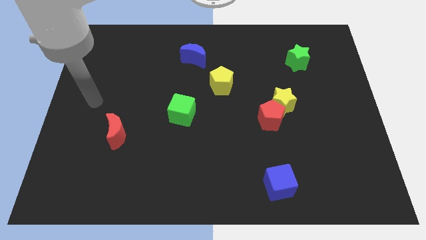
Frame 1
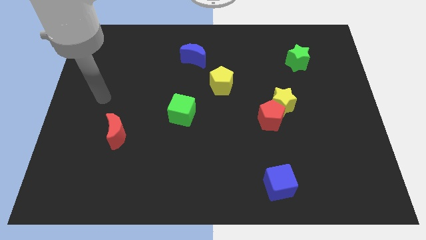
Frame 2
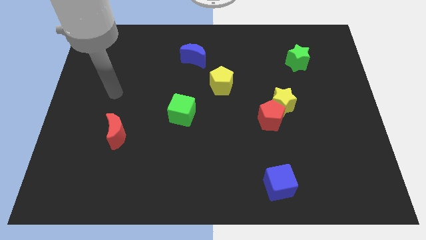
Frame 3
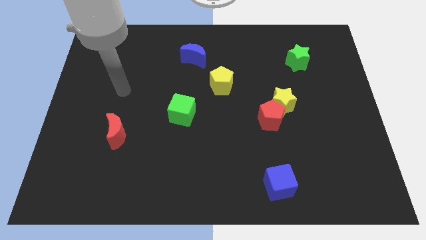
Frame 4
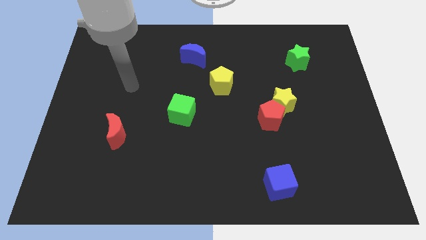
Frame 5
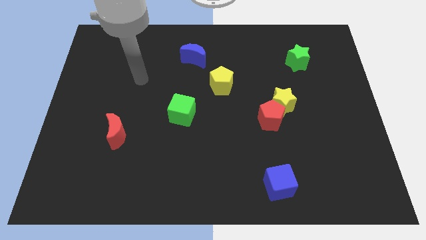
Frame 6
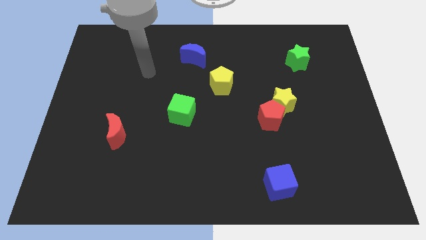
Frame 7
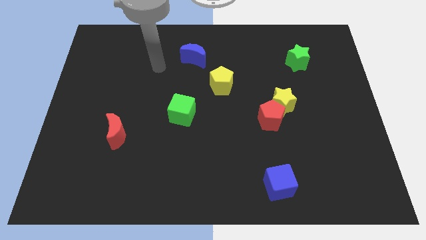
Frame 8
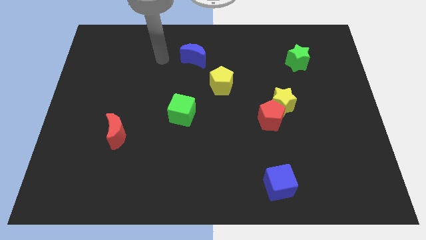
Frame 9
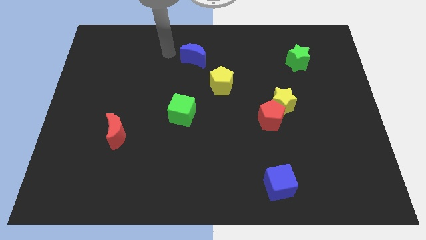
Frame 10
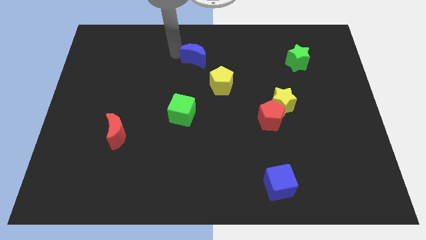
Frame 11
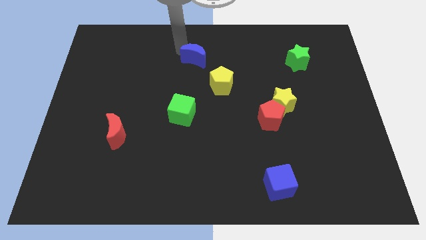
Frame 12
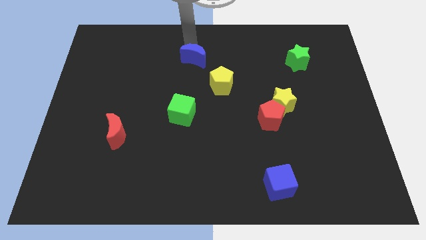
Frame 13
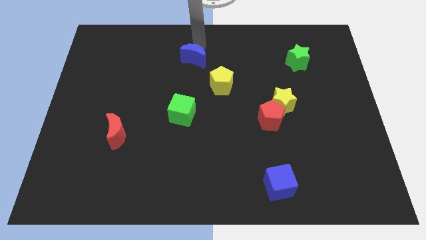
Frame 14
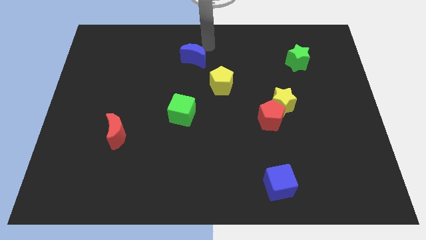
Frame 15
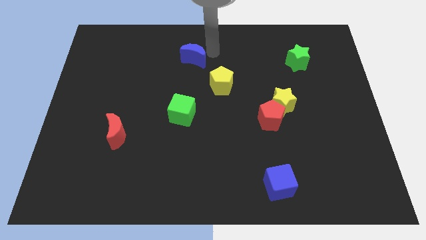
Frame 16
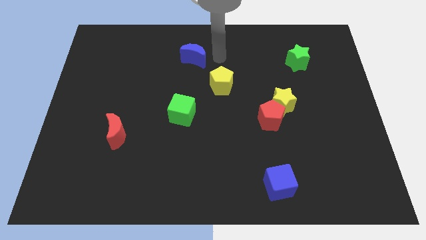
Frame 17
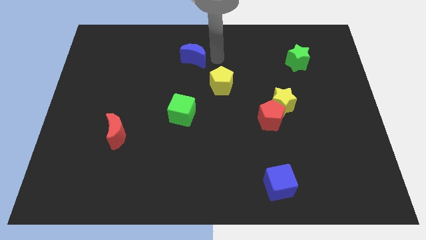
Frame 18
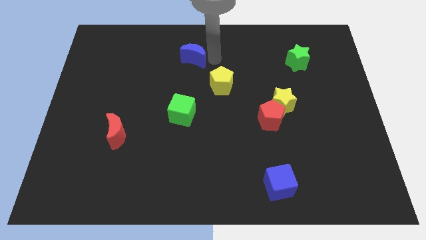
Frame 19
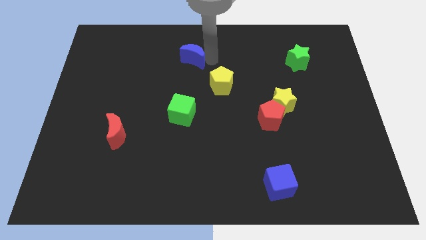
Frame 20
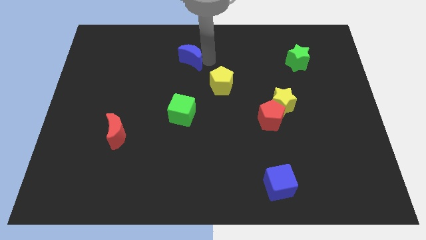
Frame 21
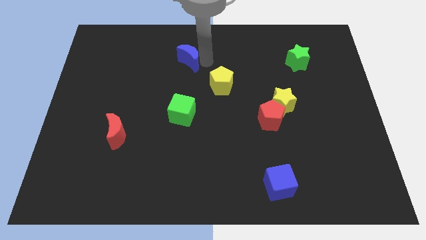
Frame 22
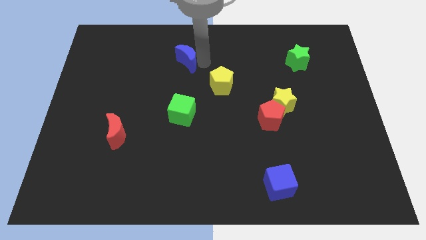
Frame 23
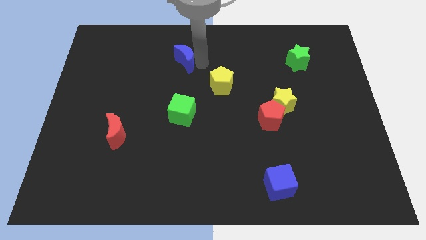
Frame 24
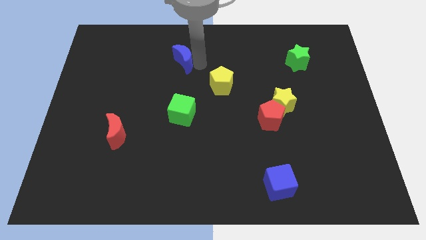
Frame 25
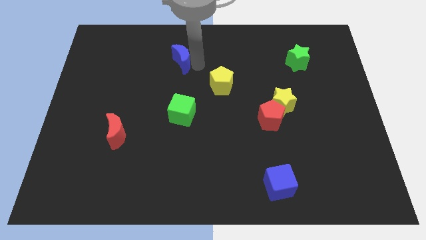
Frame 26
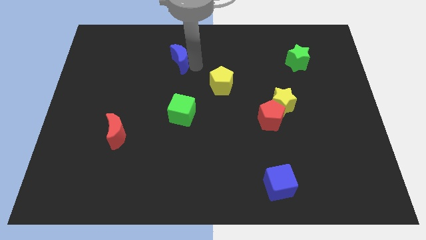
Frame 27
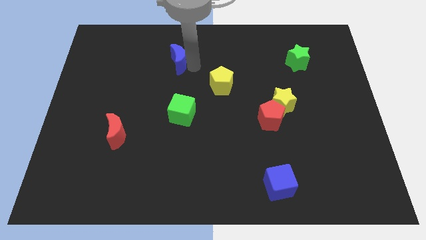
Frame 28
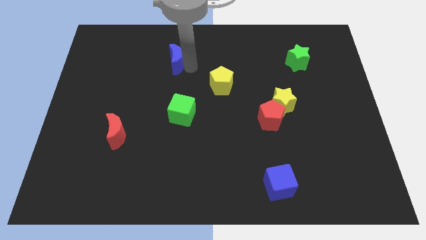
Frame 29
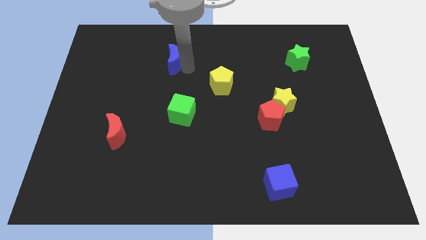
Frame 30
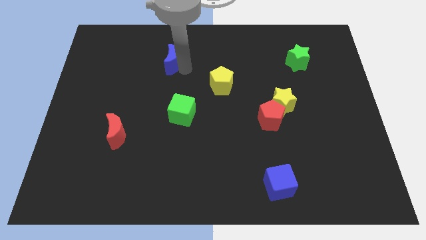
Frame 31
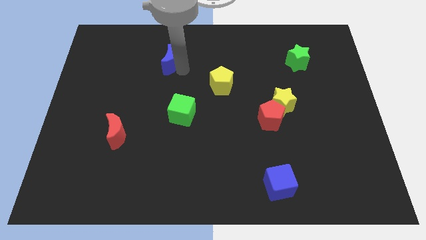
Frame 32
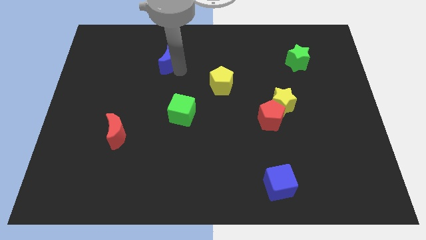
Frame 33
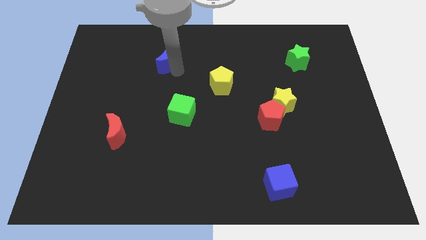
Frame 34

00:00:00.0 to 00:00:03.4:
push the blue moon to the left a bit

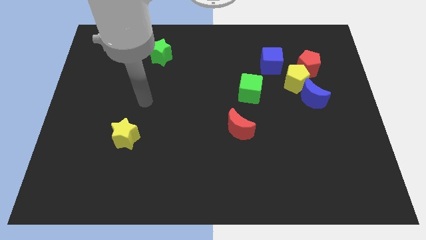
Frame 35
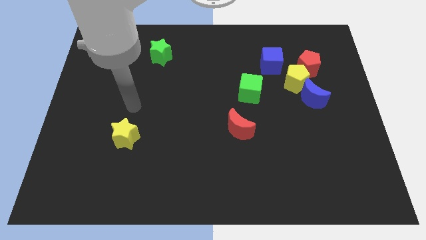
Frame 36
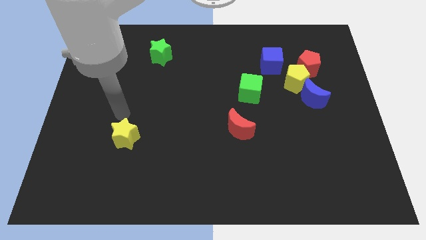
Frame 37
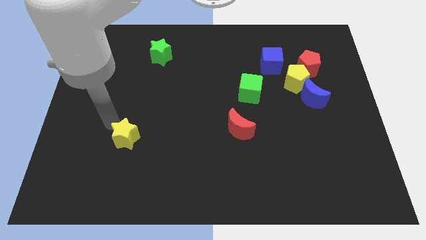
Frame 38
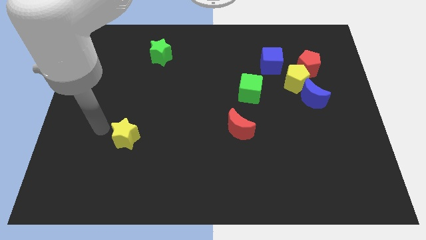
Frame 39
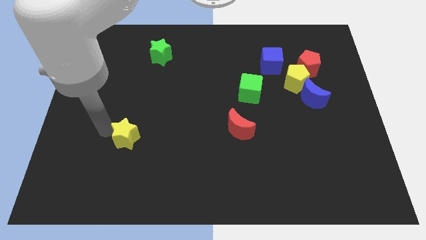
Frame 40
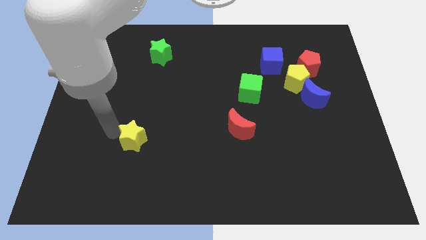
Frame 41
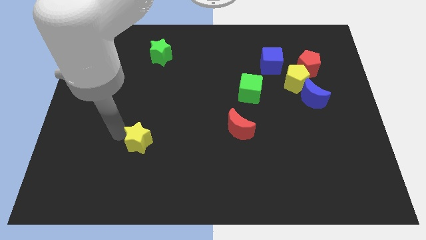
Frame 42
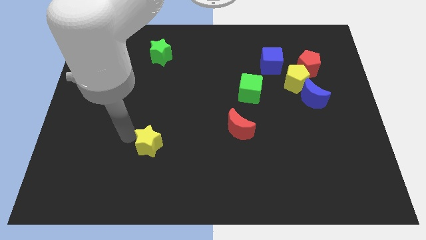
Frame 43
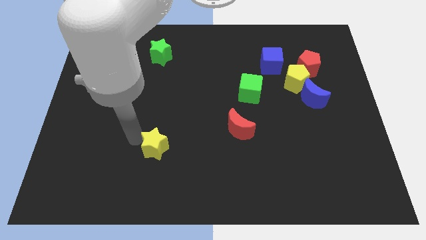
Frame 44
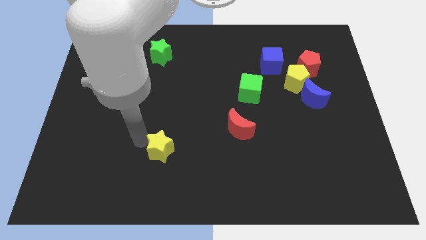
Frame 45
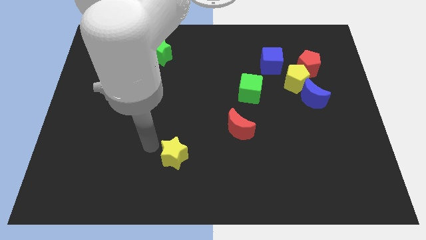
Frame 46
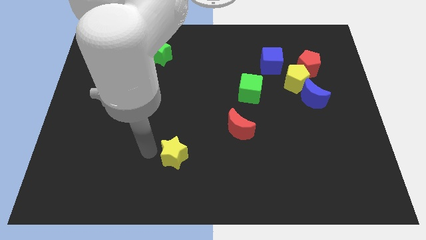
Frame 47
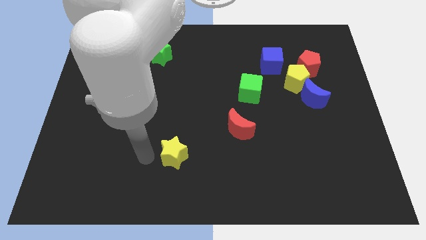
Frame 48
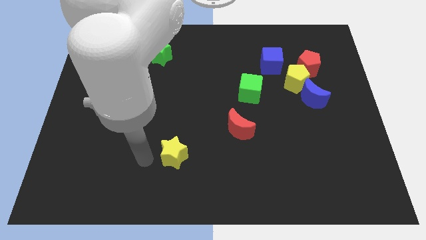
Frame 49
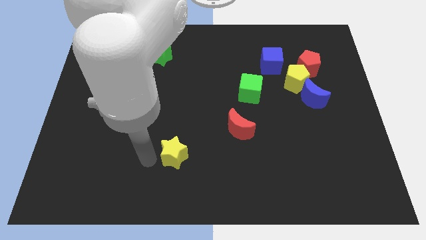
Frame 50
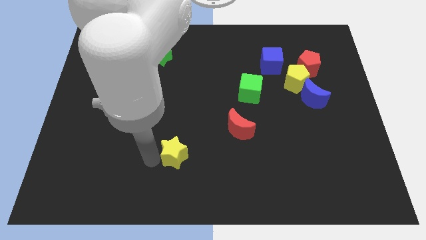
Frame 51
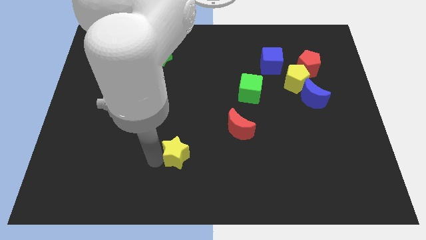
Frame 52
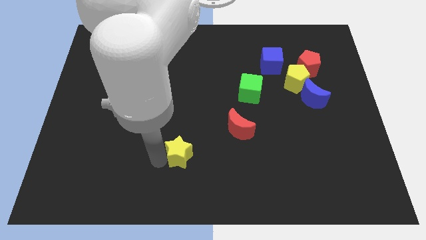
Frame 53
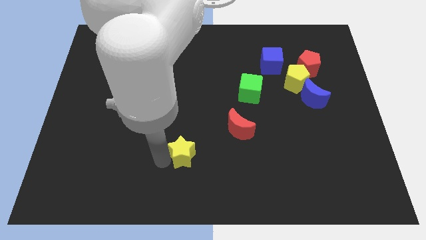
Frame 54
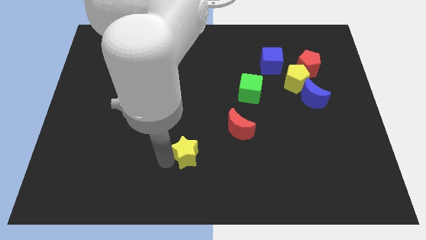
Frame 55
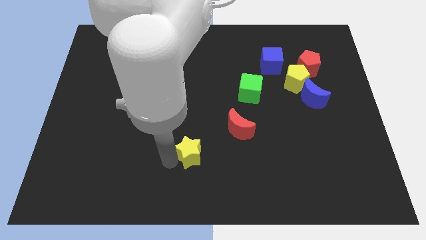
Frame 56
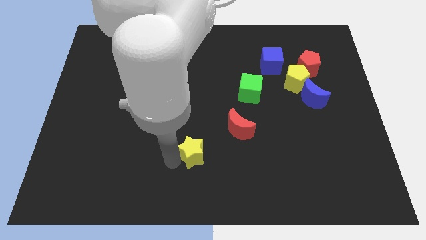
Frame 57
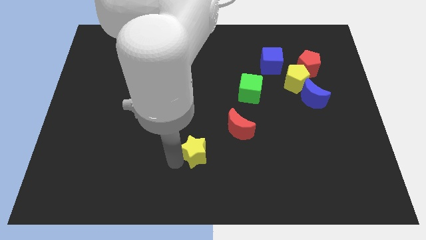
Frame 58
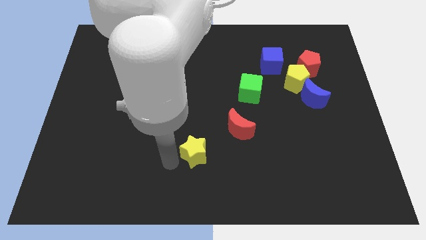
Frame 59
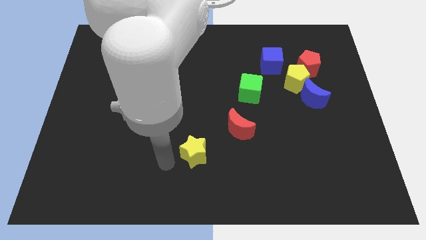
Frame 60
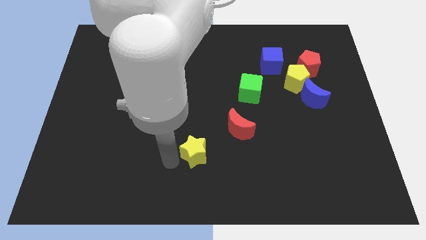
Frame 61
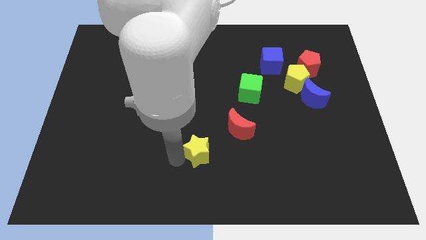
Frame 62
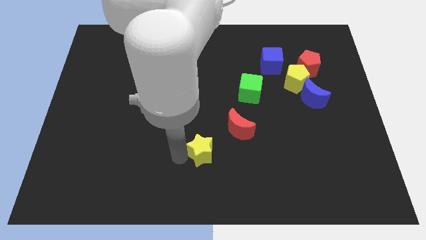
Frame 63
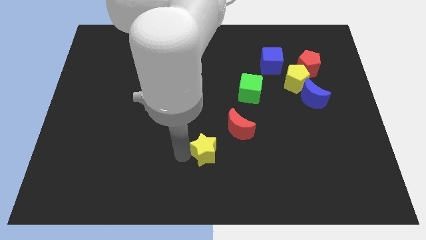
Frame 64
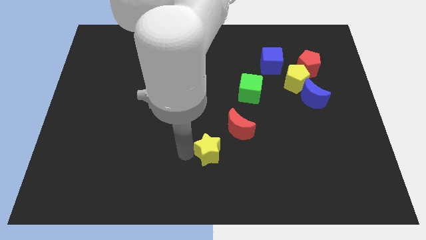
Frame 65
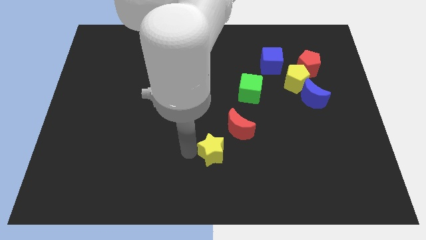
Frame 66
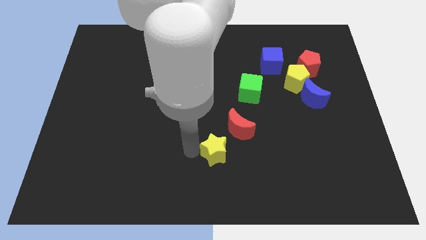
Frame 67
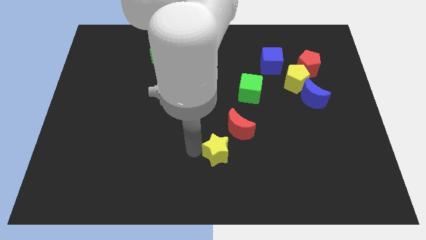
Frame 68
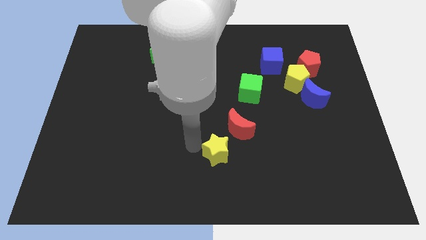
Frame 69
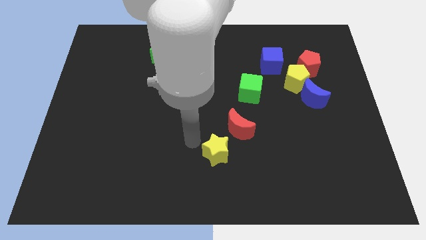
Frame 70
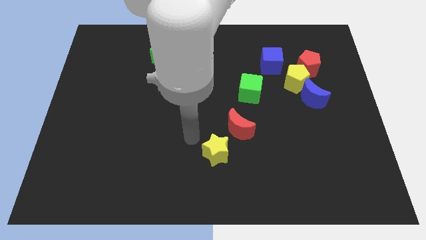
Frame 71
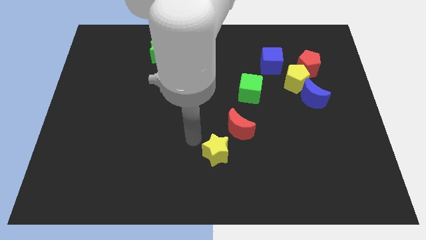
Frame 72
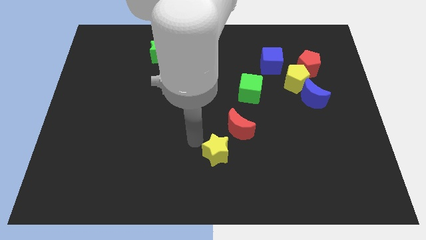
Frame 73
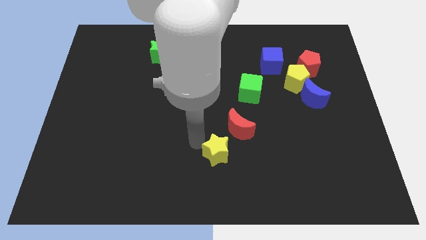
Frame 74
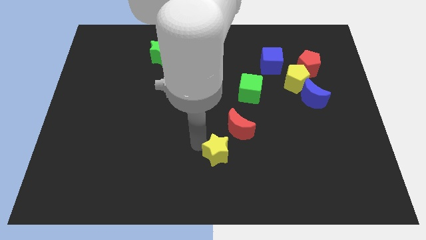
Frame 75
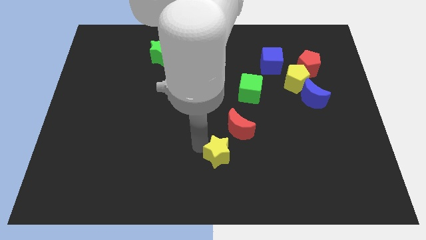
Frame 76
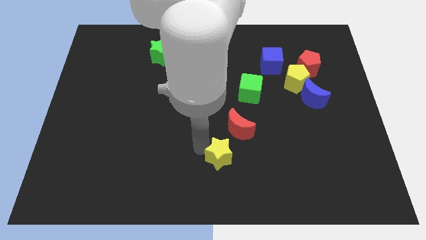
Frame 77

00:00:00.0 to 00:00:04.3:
move the yellow star right

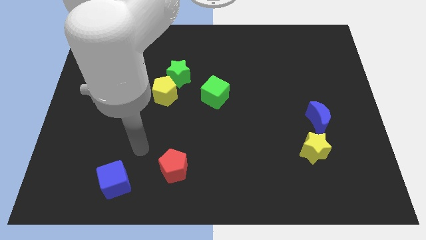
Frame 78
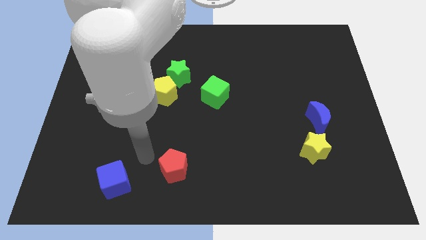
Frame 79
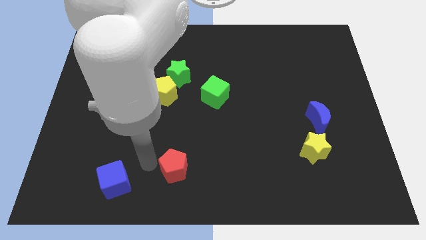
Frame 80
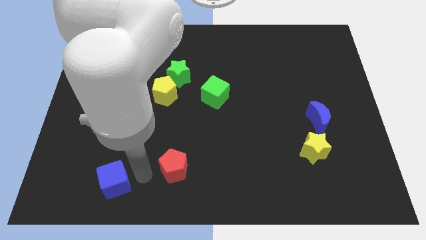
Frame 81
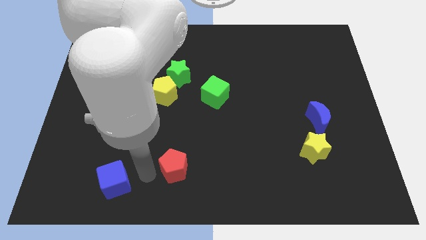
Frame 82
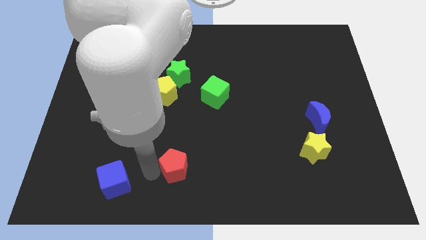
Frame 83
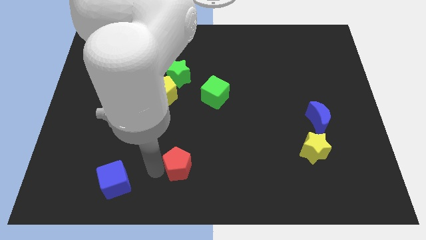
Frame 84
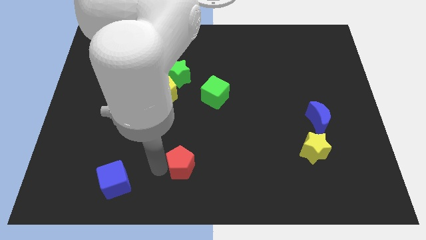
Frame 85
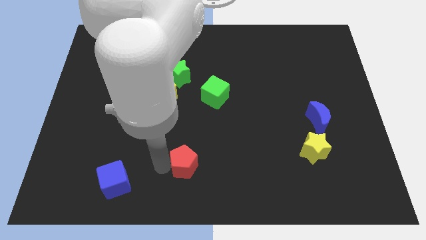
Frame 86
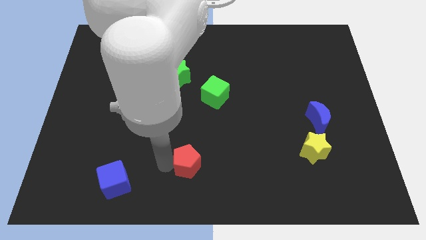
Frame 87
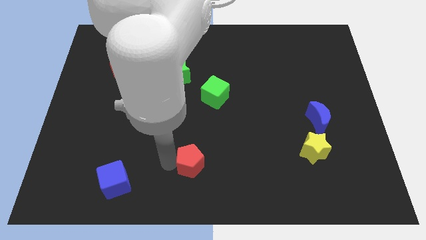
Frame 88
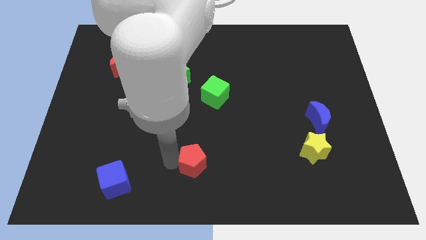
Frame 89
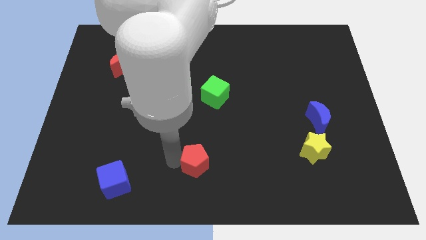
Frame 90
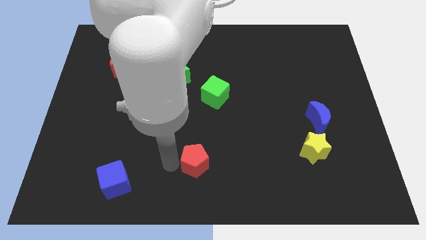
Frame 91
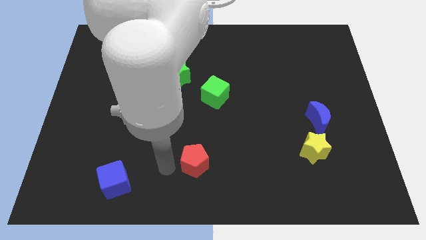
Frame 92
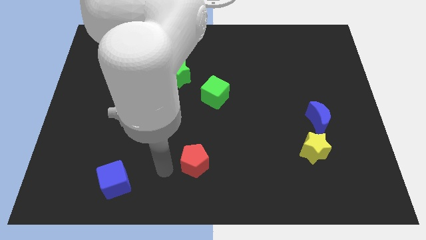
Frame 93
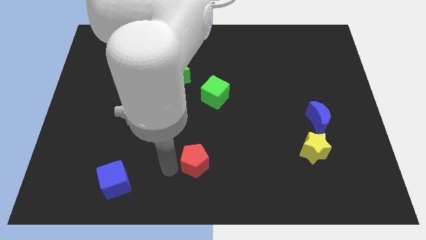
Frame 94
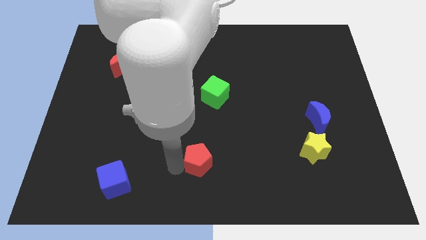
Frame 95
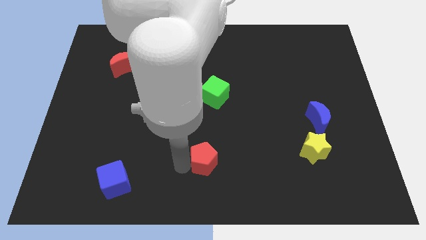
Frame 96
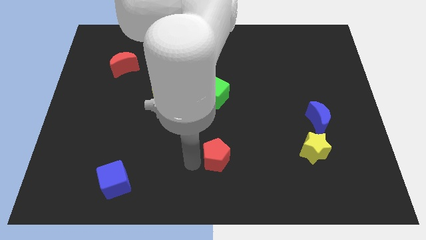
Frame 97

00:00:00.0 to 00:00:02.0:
move the red pentagon right slightly
